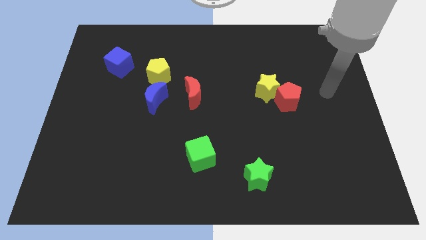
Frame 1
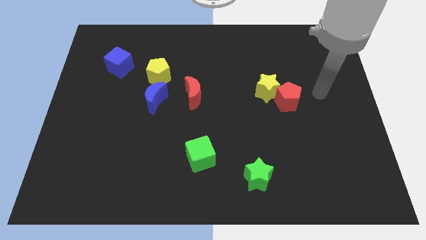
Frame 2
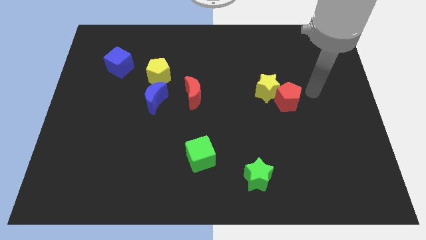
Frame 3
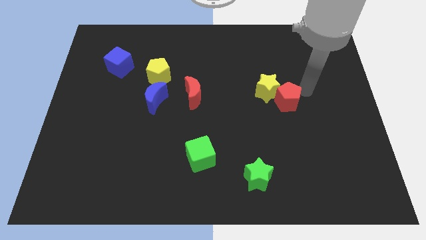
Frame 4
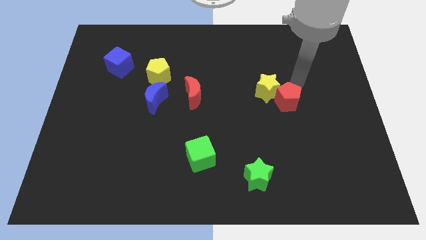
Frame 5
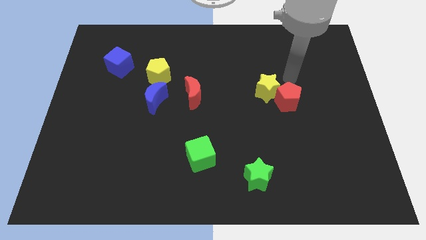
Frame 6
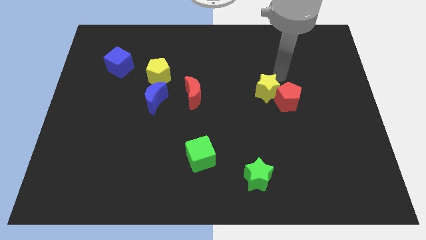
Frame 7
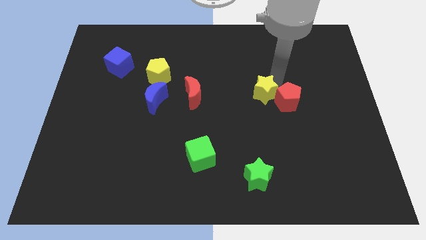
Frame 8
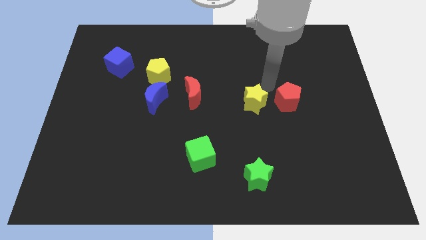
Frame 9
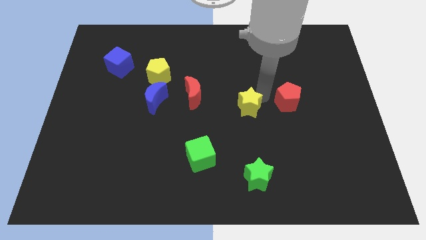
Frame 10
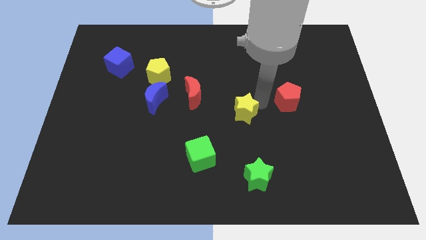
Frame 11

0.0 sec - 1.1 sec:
separate the red pentagon from the yellow star

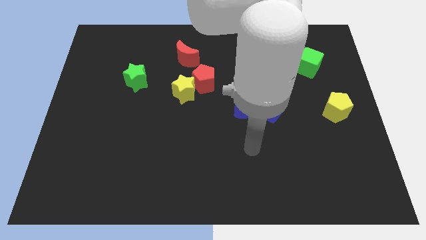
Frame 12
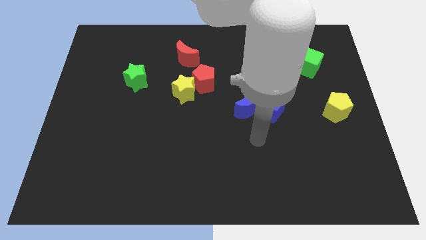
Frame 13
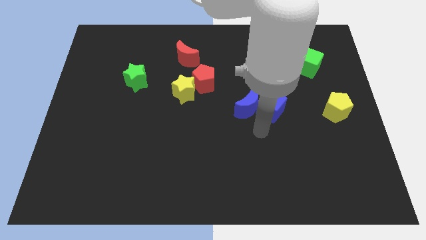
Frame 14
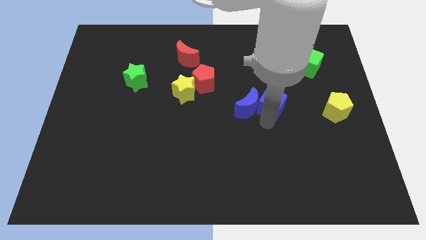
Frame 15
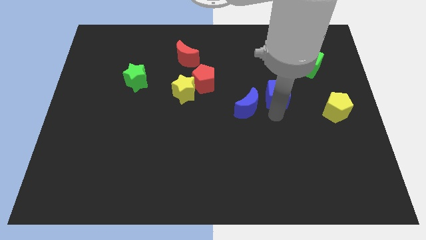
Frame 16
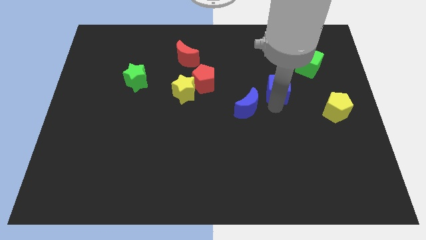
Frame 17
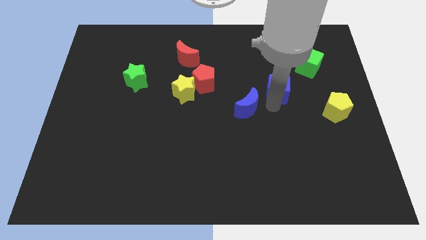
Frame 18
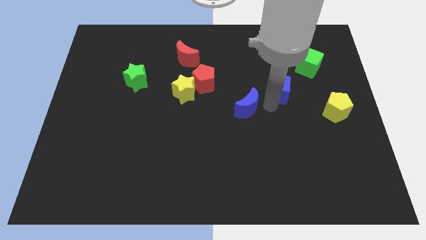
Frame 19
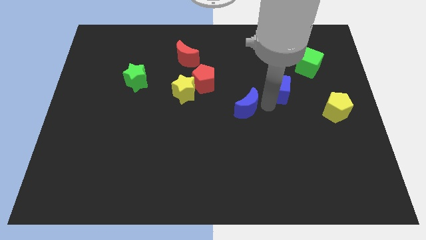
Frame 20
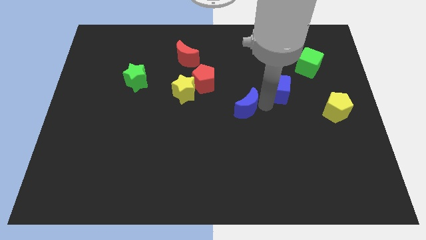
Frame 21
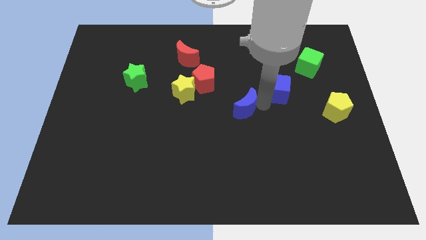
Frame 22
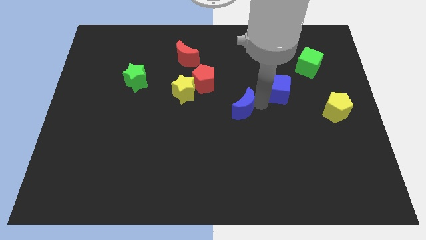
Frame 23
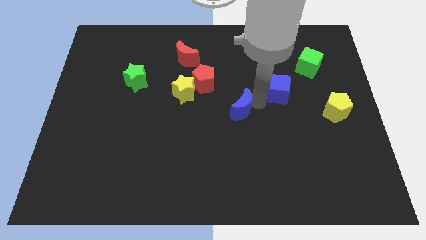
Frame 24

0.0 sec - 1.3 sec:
separate the blue moon from the blue cube

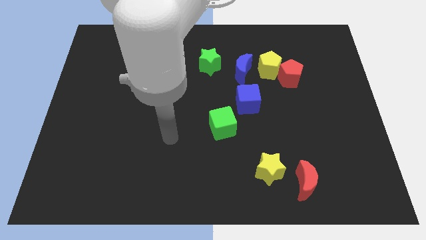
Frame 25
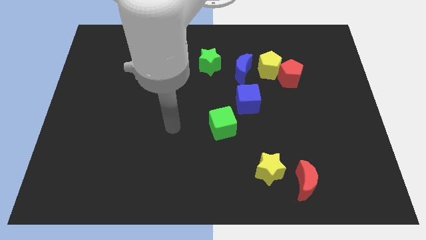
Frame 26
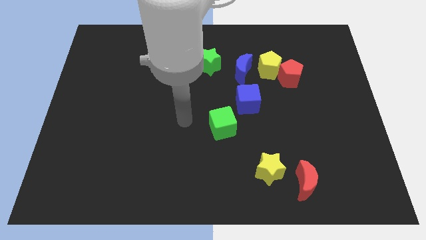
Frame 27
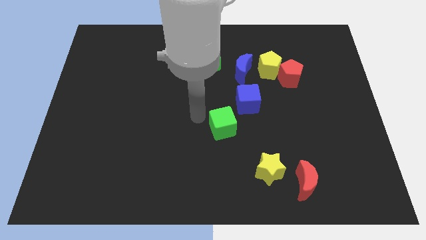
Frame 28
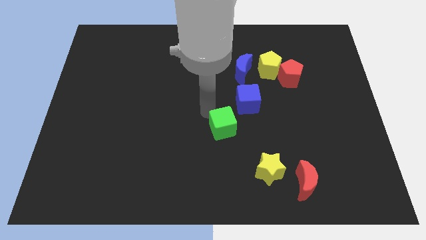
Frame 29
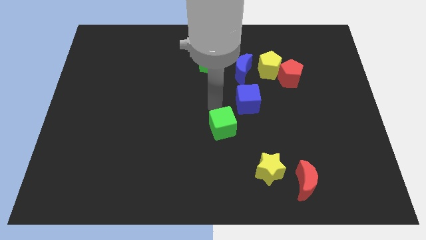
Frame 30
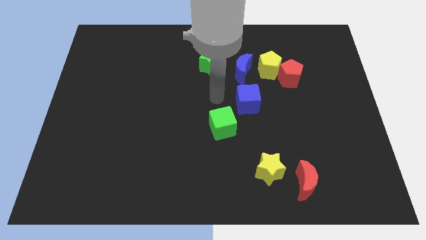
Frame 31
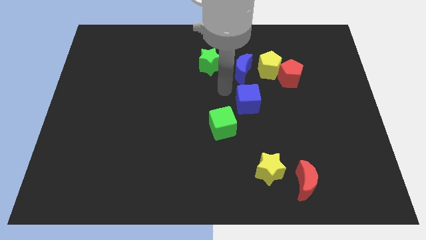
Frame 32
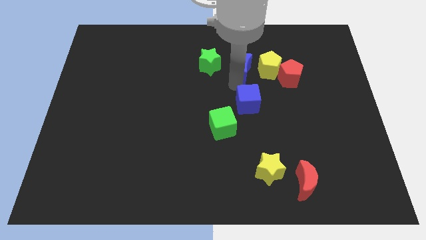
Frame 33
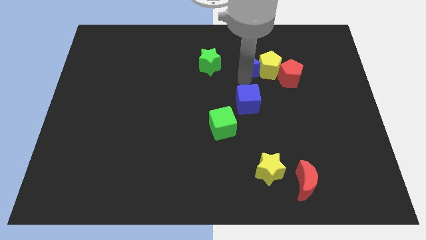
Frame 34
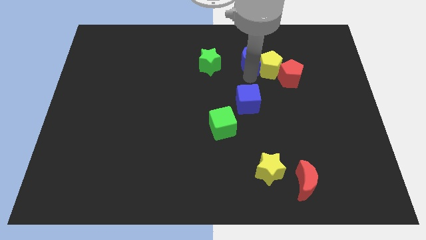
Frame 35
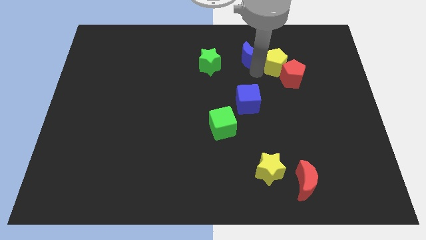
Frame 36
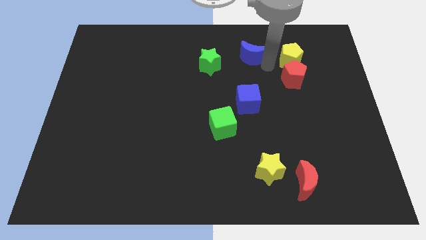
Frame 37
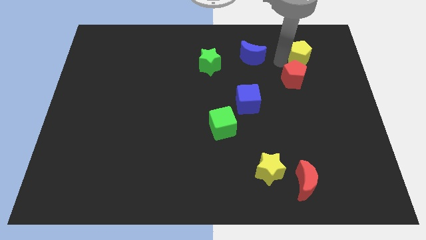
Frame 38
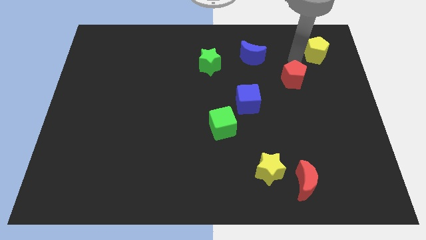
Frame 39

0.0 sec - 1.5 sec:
move the red pentagon away from the yellow pentagon

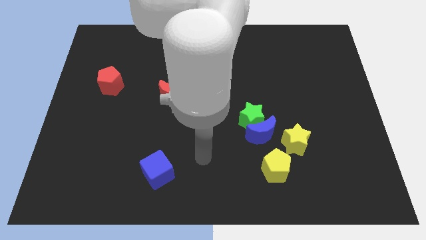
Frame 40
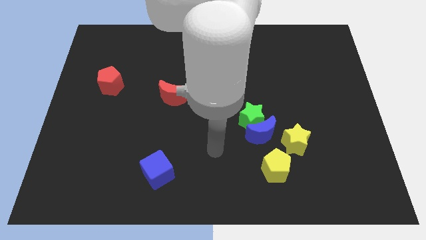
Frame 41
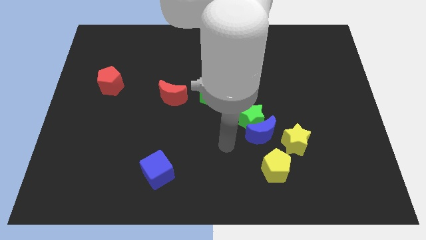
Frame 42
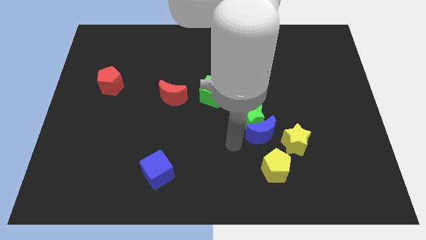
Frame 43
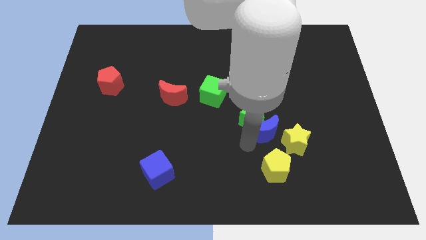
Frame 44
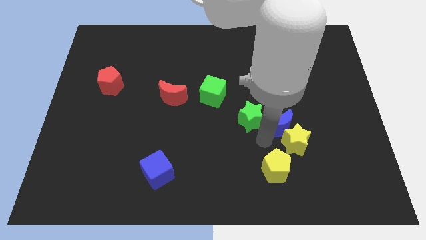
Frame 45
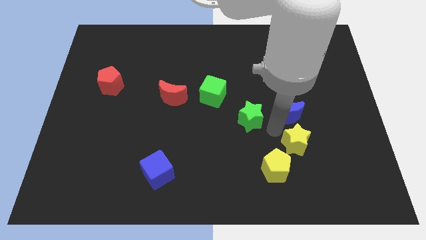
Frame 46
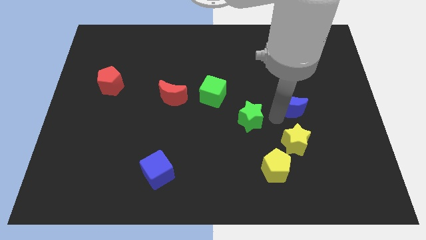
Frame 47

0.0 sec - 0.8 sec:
move the green star away from the blue moon

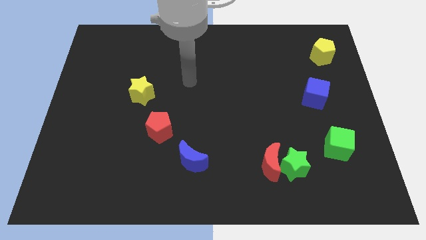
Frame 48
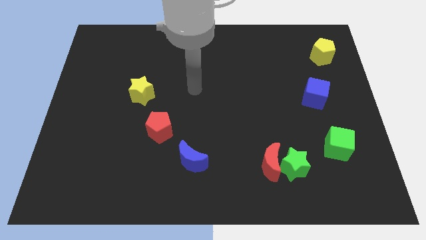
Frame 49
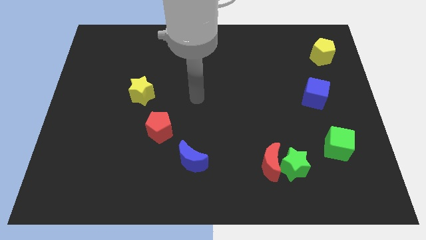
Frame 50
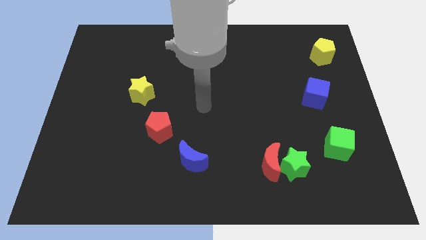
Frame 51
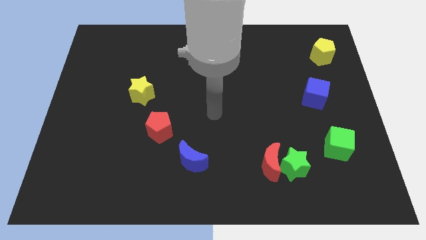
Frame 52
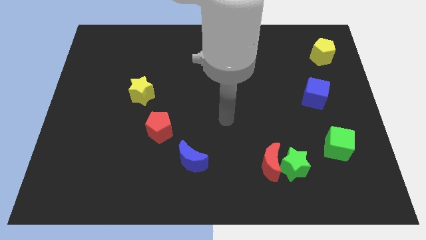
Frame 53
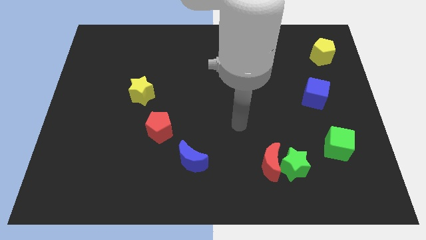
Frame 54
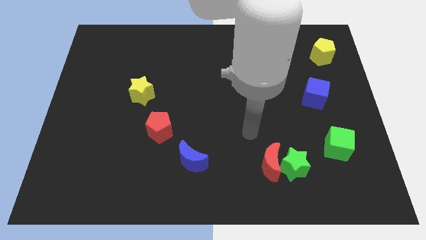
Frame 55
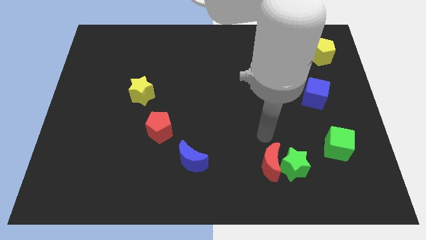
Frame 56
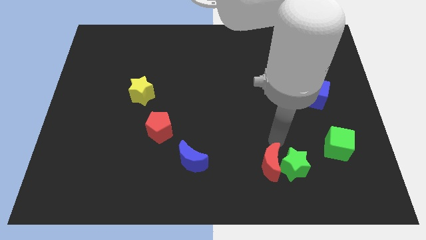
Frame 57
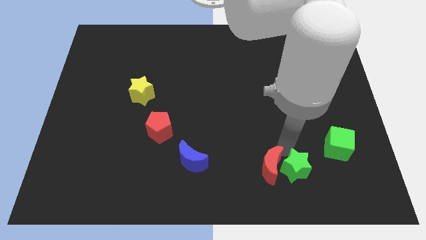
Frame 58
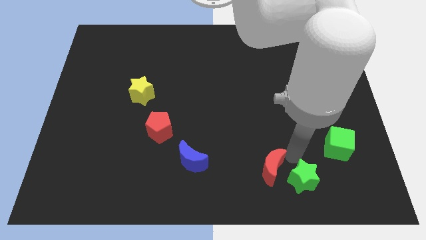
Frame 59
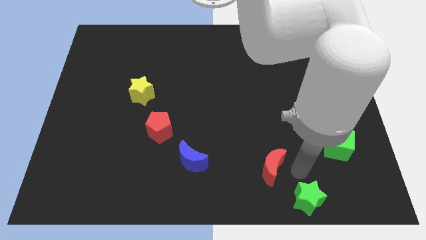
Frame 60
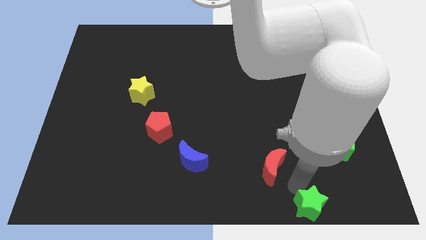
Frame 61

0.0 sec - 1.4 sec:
separate the red moon from the green star

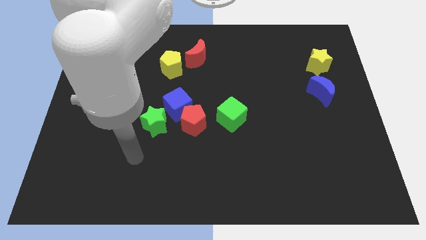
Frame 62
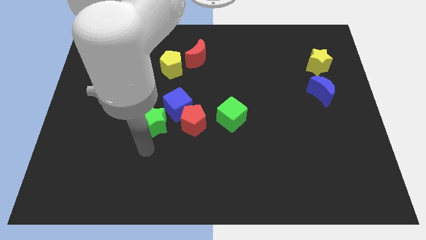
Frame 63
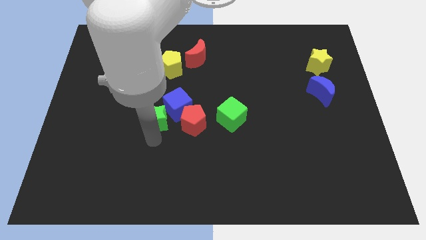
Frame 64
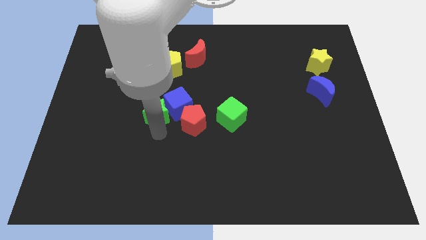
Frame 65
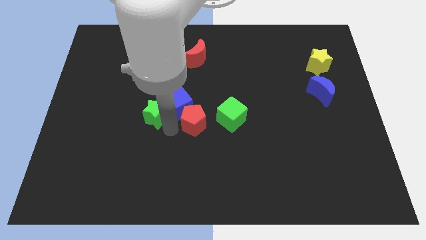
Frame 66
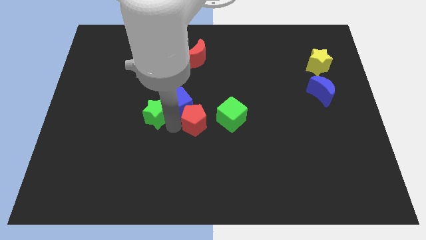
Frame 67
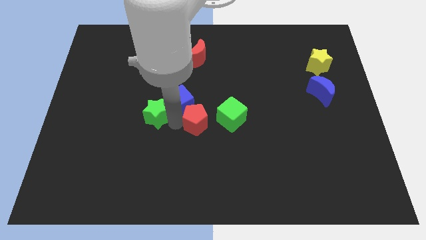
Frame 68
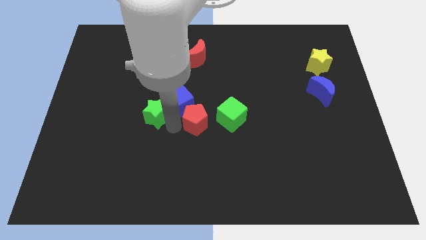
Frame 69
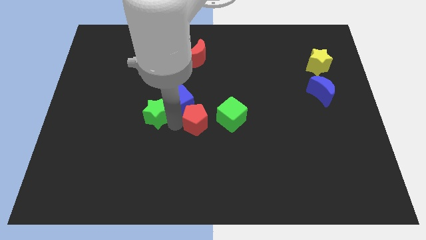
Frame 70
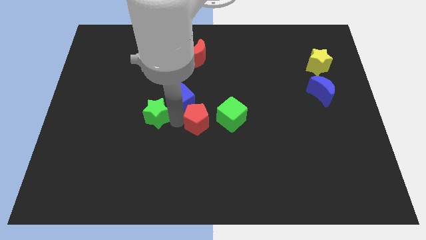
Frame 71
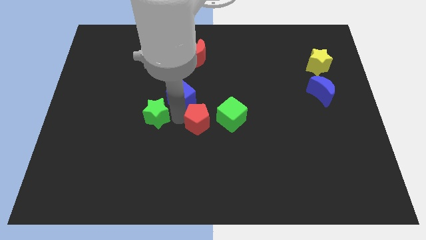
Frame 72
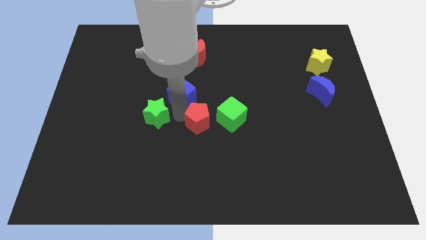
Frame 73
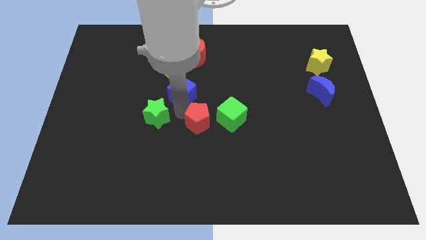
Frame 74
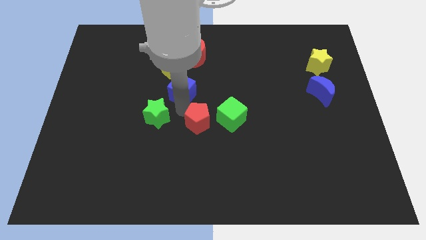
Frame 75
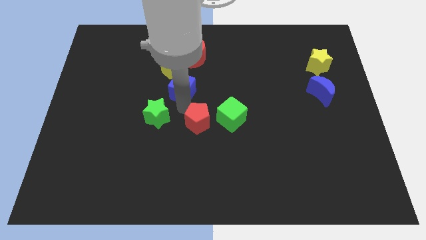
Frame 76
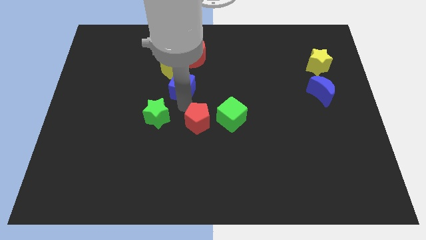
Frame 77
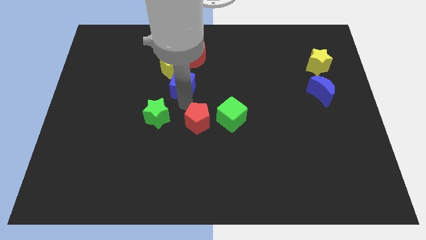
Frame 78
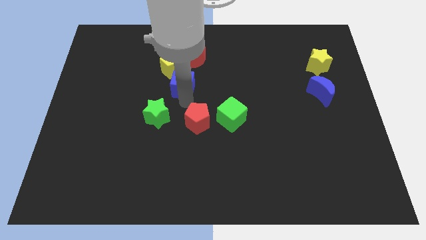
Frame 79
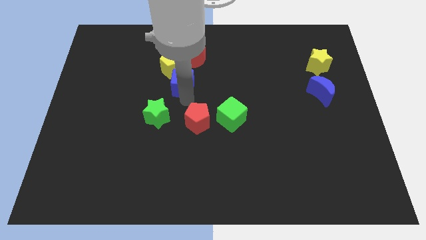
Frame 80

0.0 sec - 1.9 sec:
move the blue cube away from the red pentagon and green star

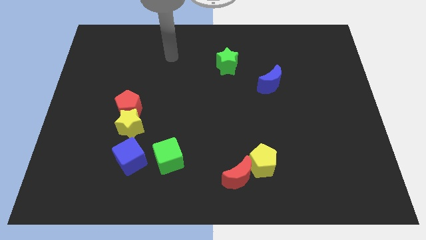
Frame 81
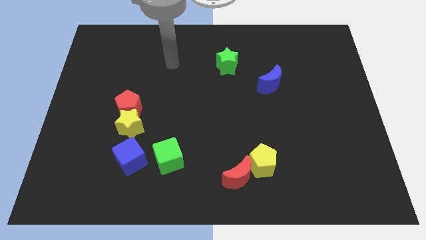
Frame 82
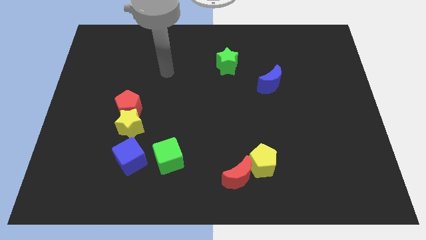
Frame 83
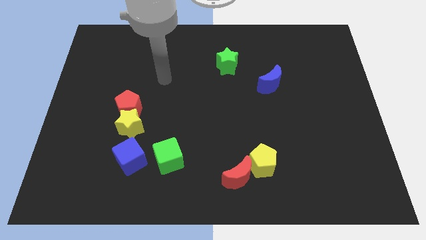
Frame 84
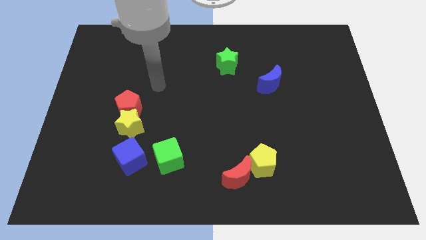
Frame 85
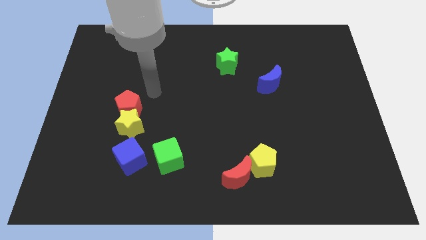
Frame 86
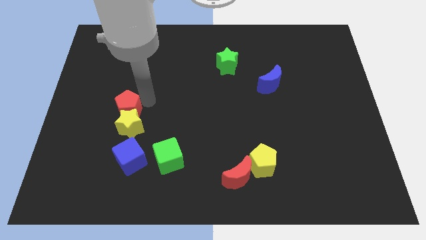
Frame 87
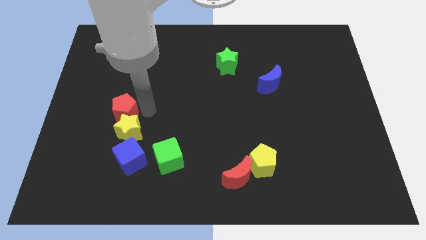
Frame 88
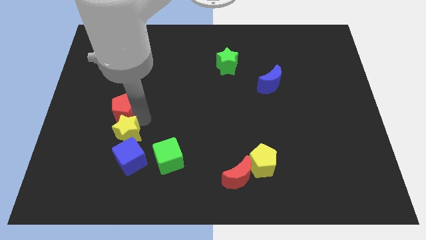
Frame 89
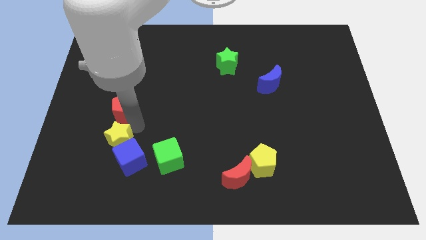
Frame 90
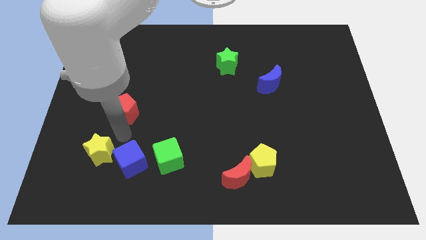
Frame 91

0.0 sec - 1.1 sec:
move the red pentagon away from the yellow star
